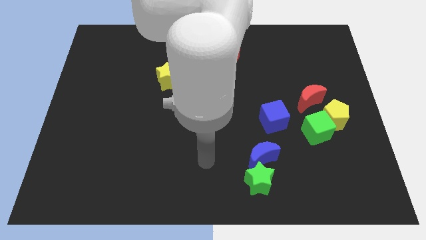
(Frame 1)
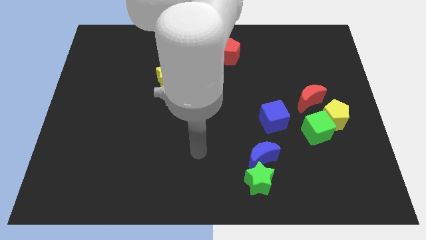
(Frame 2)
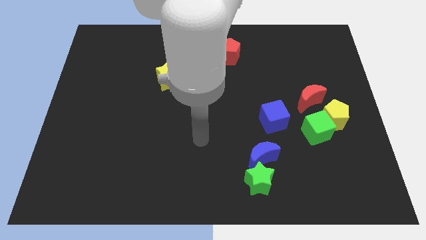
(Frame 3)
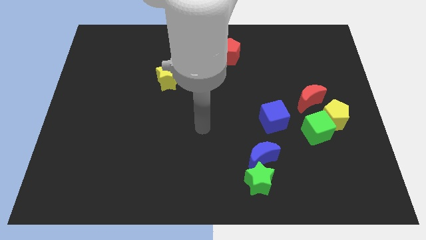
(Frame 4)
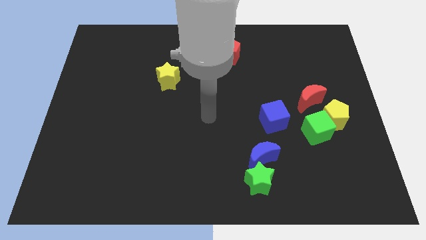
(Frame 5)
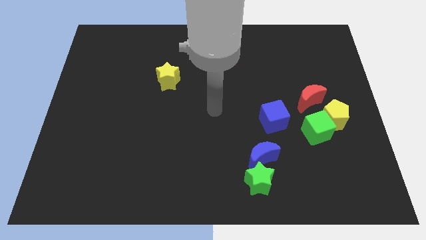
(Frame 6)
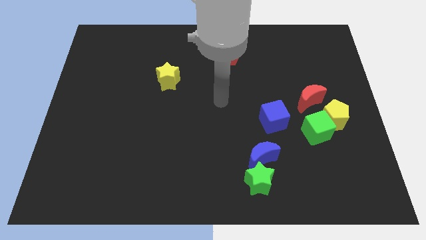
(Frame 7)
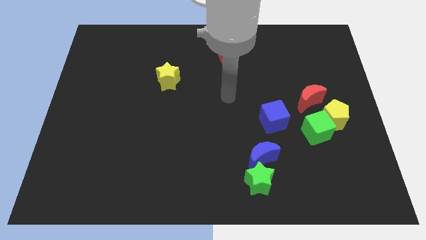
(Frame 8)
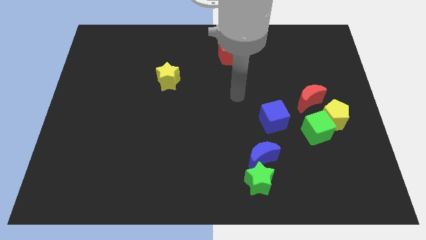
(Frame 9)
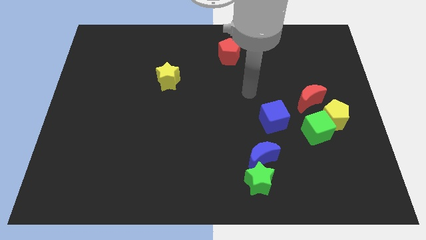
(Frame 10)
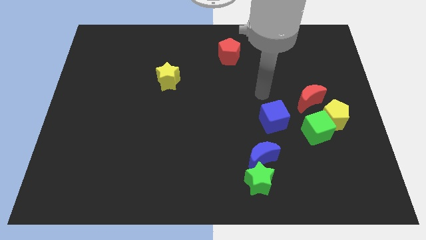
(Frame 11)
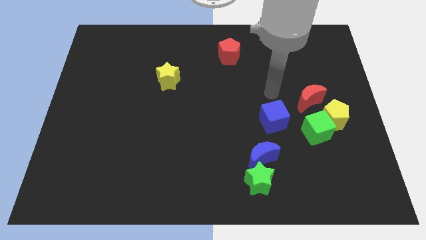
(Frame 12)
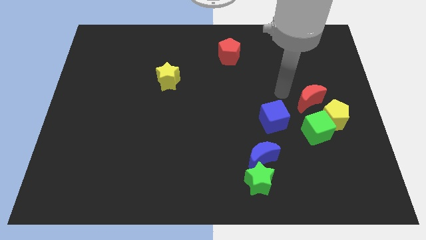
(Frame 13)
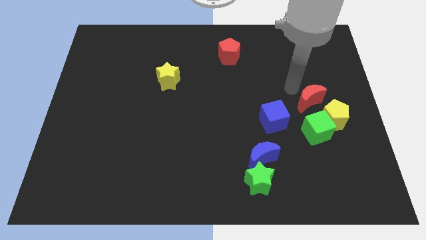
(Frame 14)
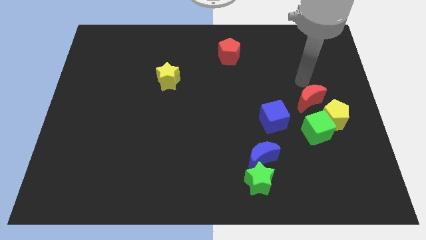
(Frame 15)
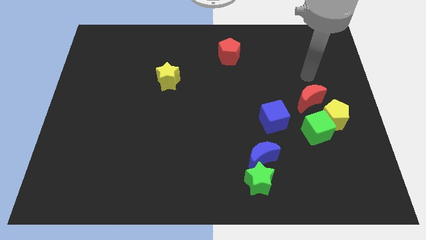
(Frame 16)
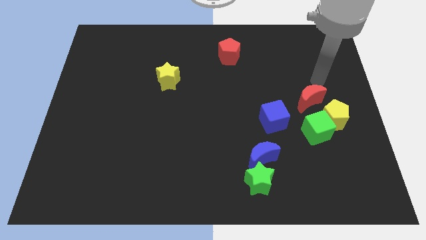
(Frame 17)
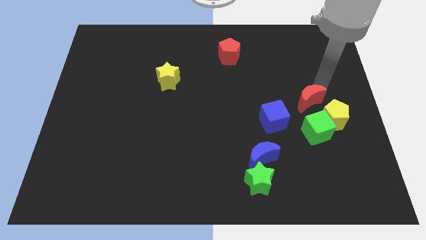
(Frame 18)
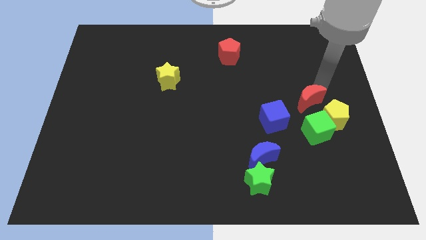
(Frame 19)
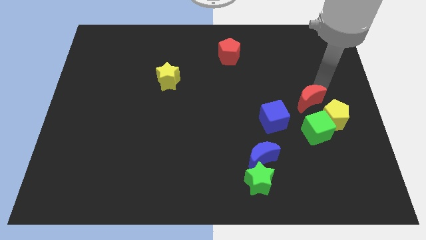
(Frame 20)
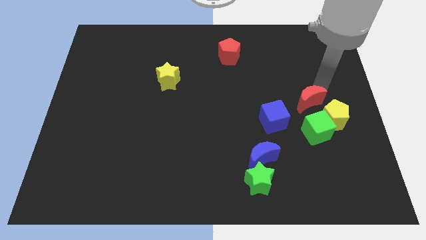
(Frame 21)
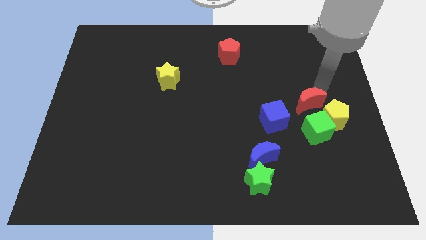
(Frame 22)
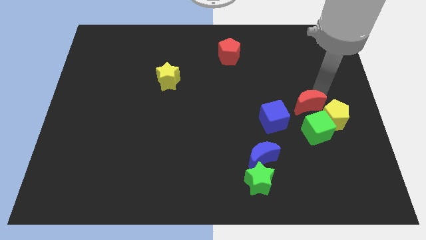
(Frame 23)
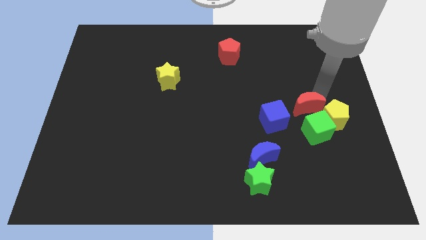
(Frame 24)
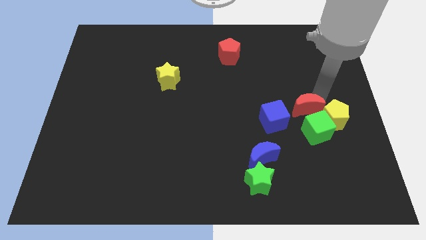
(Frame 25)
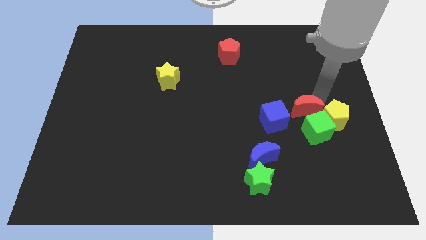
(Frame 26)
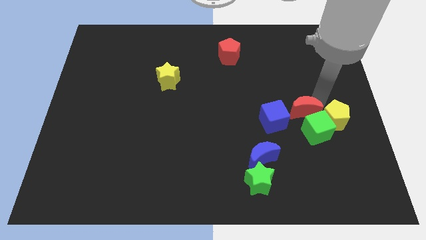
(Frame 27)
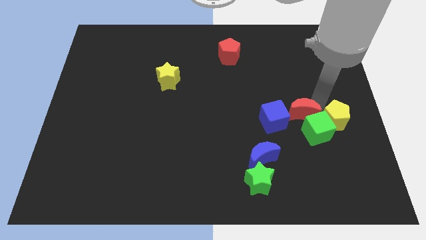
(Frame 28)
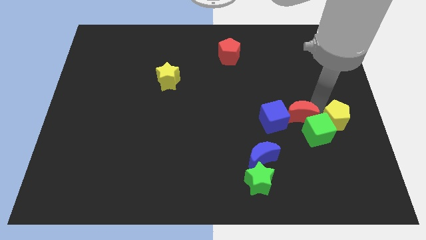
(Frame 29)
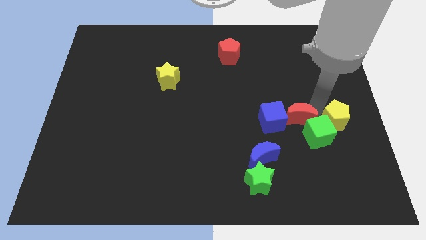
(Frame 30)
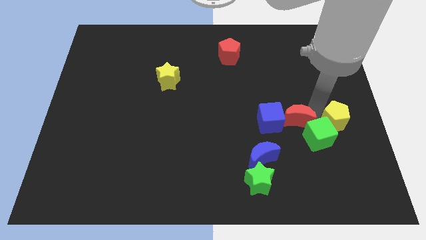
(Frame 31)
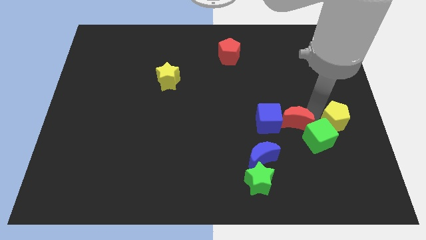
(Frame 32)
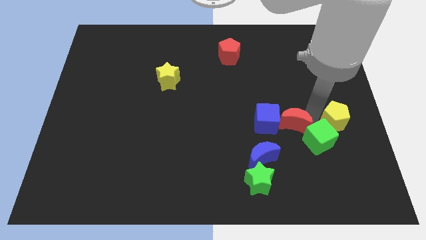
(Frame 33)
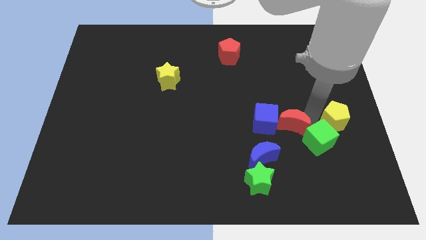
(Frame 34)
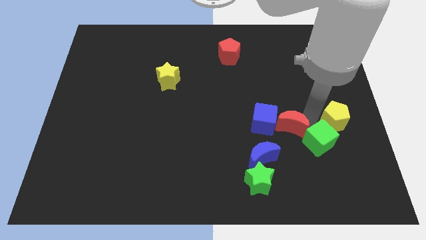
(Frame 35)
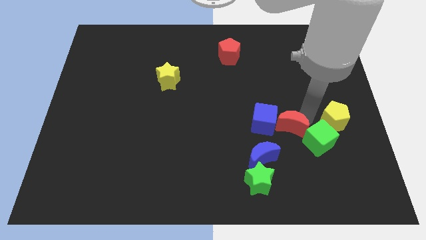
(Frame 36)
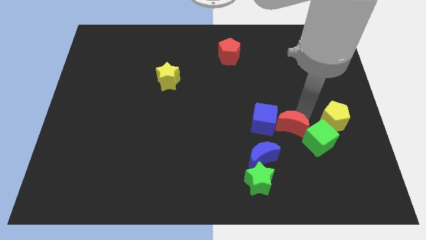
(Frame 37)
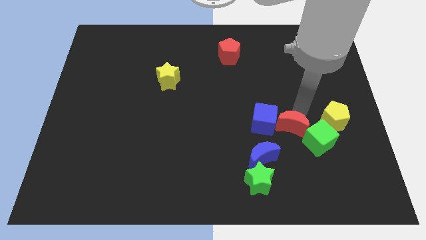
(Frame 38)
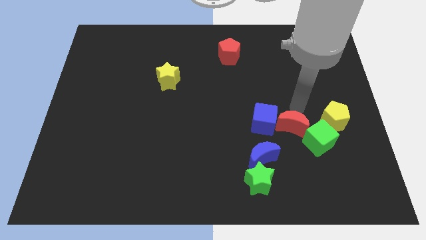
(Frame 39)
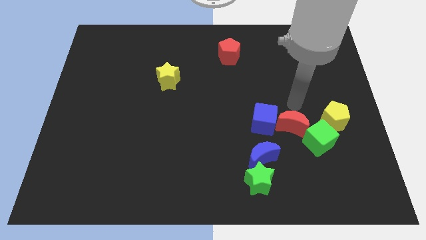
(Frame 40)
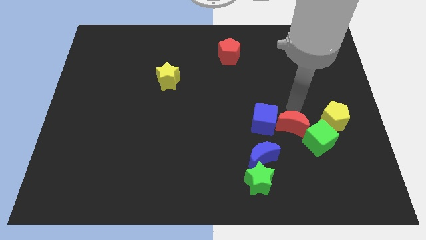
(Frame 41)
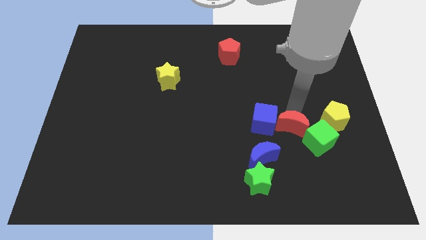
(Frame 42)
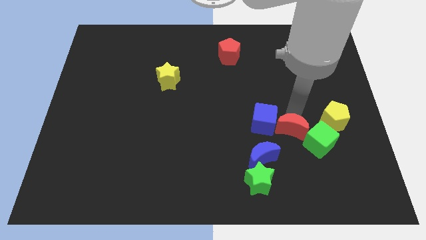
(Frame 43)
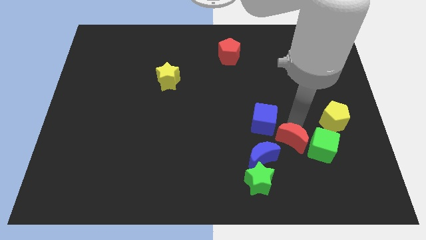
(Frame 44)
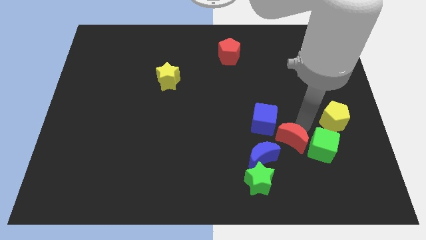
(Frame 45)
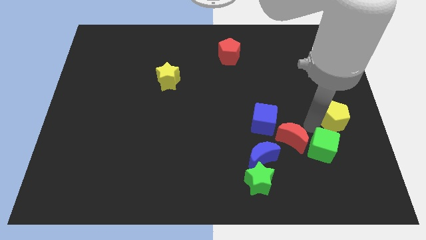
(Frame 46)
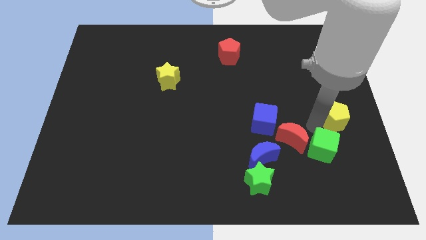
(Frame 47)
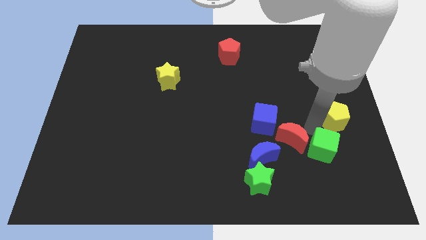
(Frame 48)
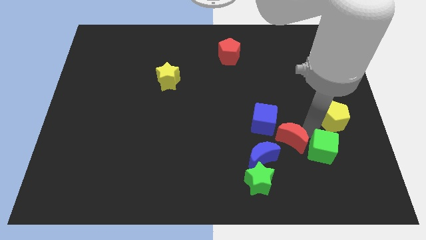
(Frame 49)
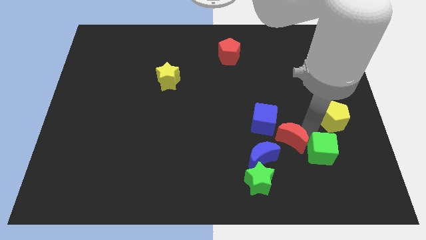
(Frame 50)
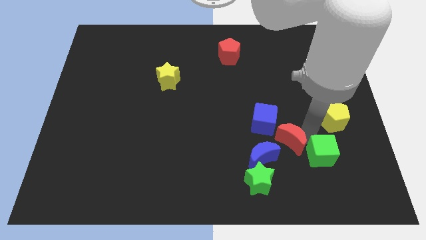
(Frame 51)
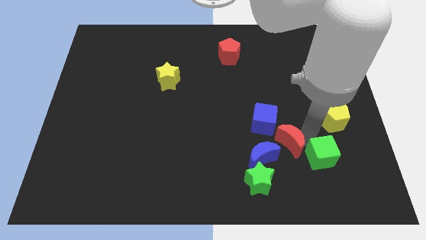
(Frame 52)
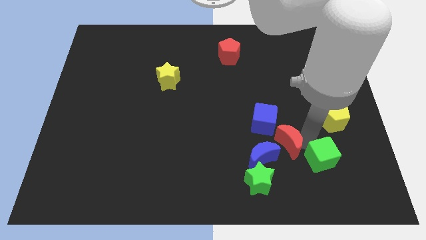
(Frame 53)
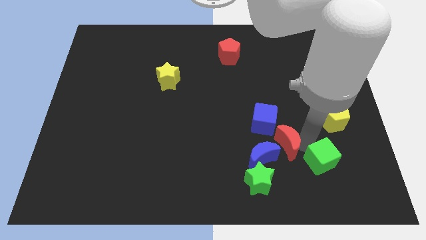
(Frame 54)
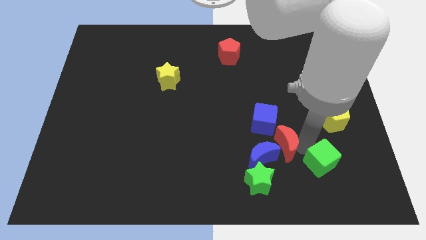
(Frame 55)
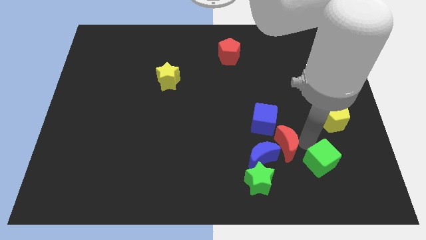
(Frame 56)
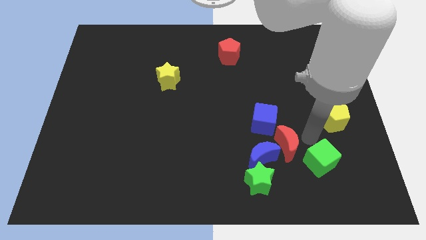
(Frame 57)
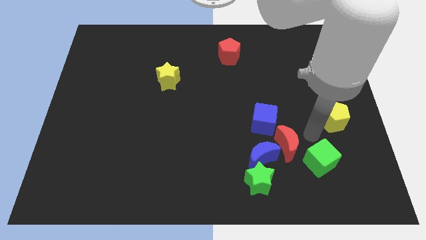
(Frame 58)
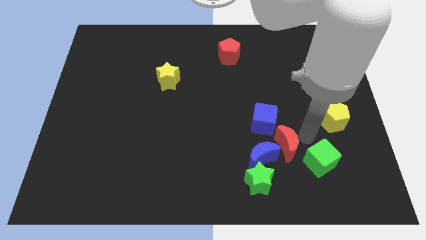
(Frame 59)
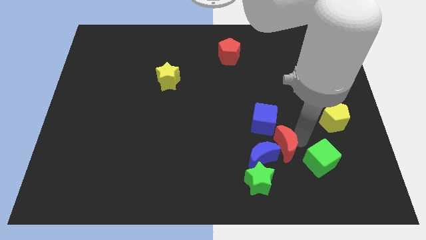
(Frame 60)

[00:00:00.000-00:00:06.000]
slide the red moon towards the blue moon

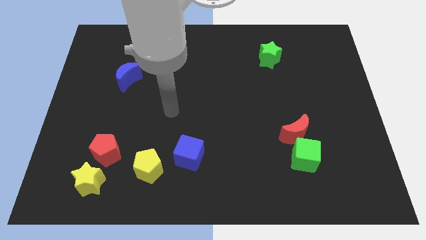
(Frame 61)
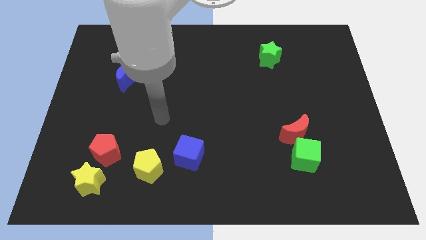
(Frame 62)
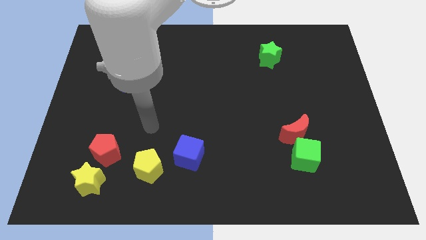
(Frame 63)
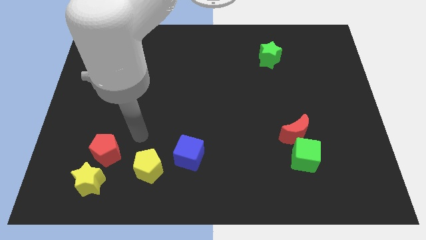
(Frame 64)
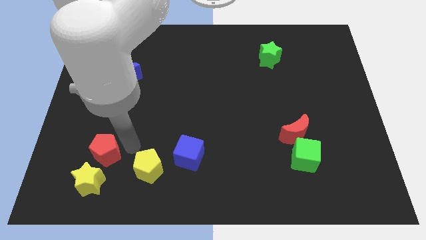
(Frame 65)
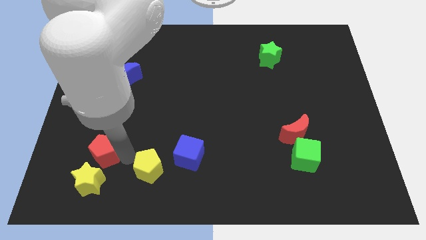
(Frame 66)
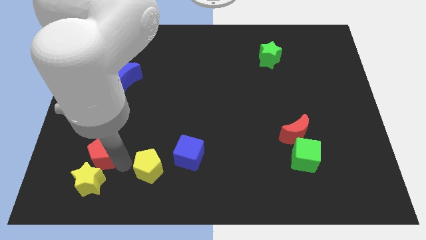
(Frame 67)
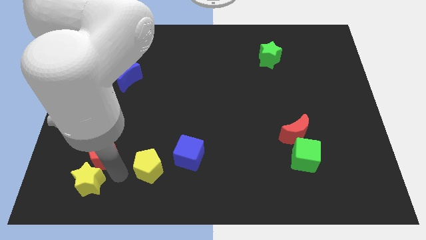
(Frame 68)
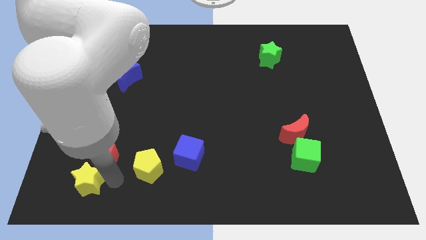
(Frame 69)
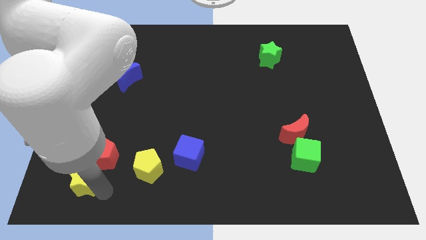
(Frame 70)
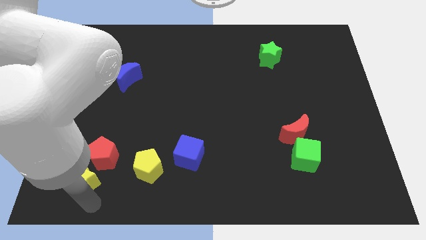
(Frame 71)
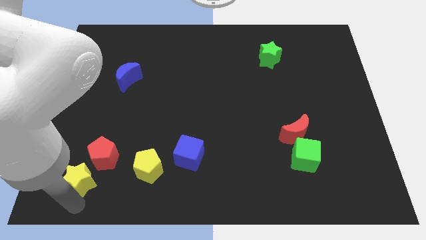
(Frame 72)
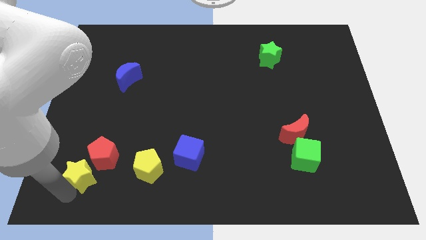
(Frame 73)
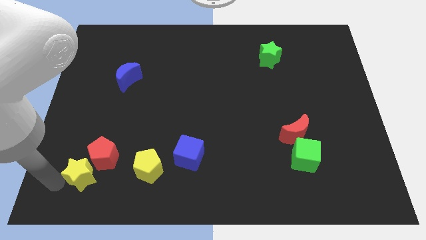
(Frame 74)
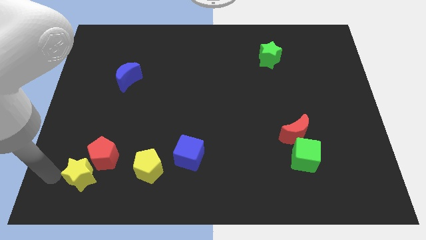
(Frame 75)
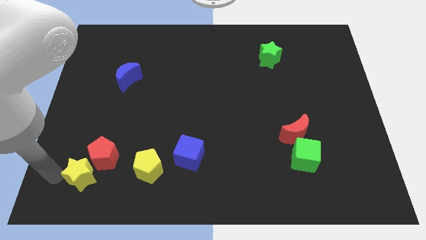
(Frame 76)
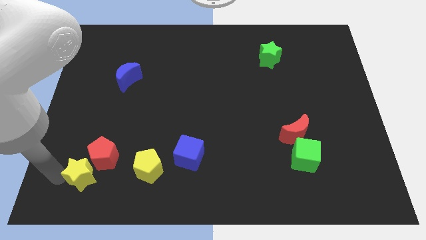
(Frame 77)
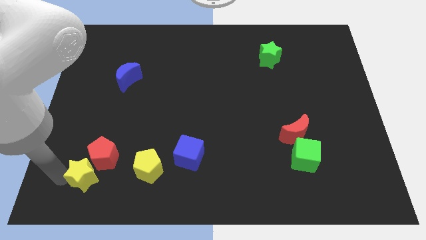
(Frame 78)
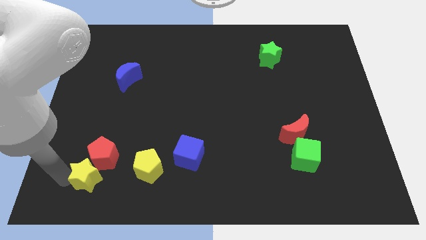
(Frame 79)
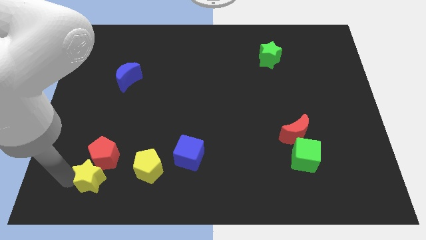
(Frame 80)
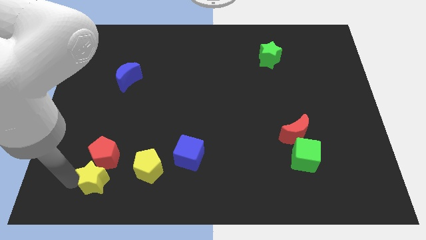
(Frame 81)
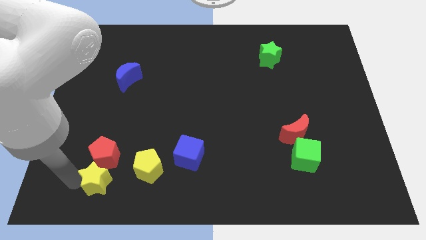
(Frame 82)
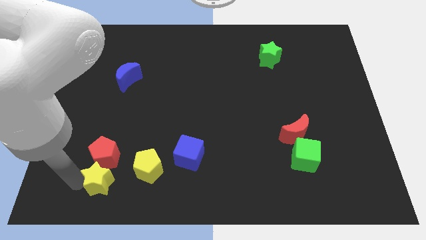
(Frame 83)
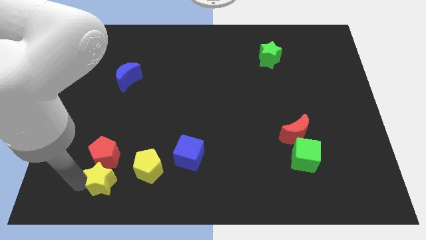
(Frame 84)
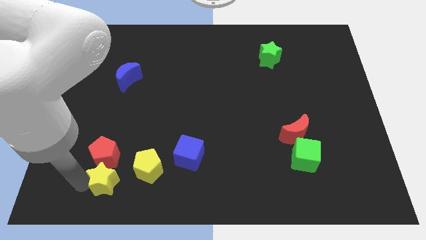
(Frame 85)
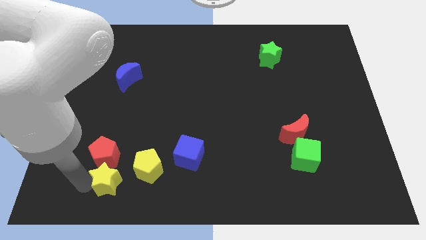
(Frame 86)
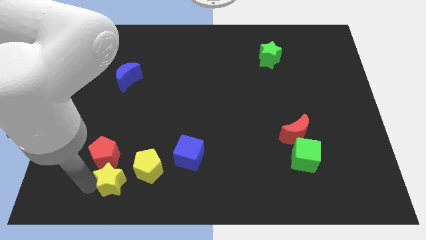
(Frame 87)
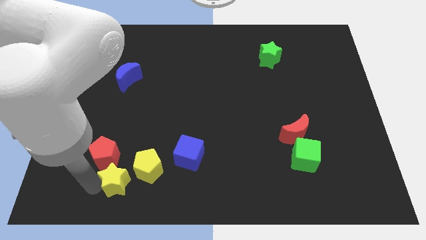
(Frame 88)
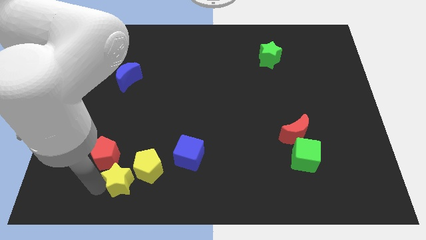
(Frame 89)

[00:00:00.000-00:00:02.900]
move the yellow star towards the yellow pentagon
